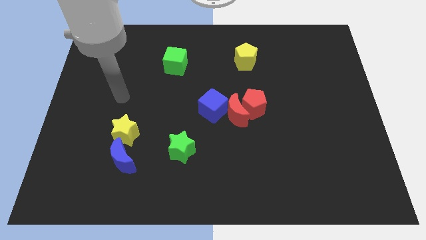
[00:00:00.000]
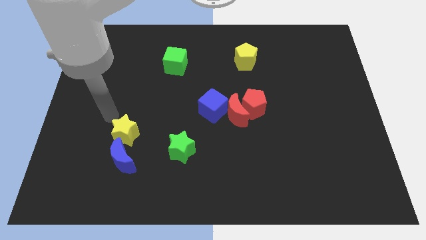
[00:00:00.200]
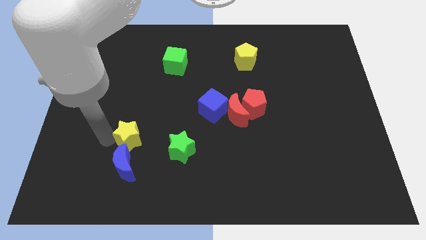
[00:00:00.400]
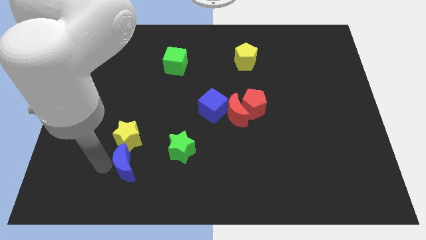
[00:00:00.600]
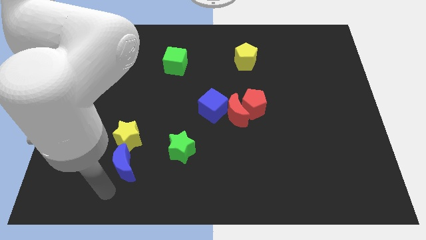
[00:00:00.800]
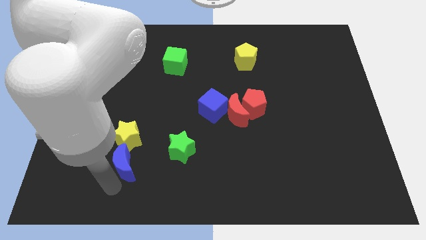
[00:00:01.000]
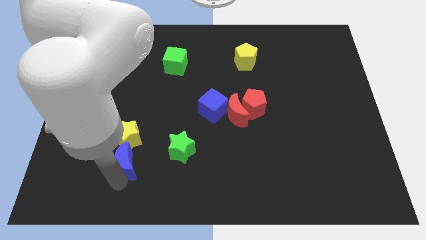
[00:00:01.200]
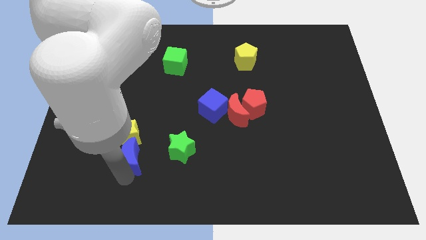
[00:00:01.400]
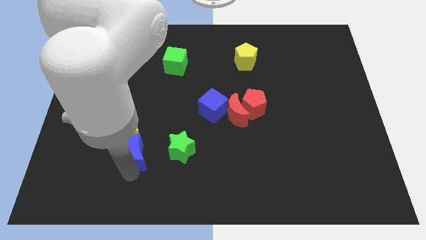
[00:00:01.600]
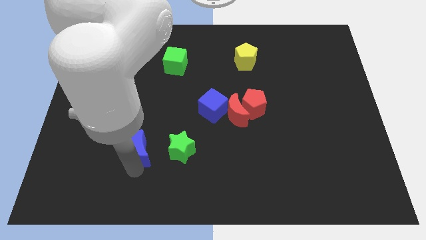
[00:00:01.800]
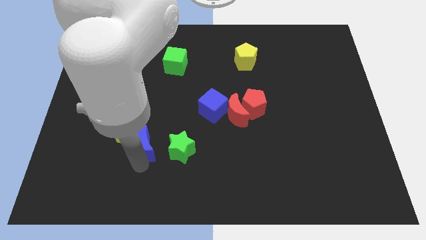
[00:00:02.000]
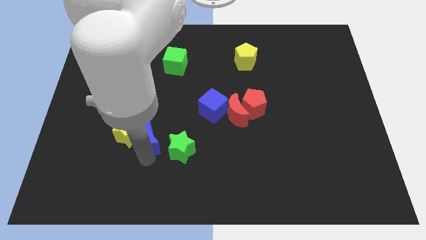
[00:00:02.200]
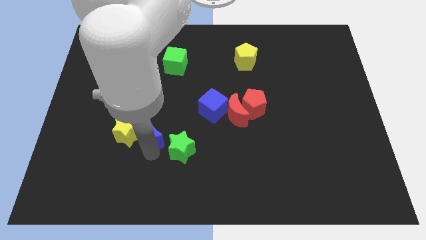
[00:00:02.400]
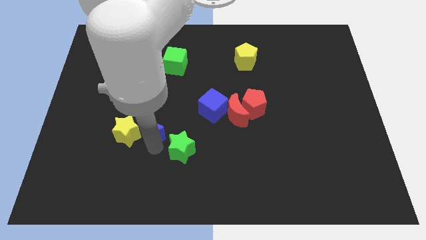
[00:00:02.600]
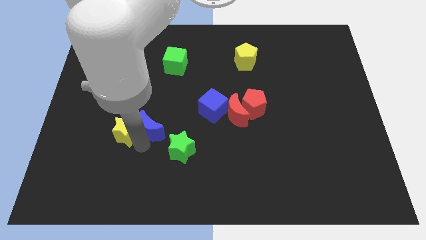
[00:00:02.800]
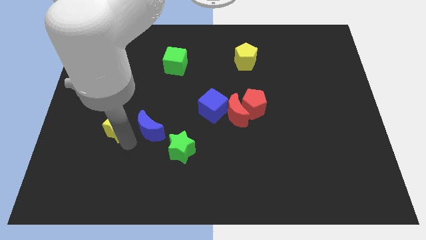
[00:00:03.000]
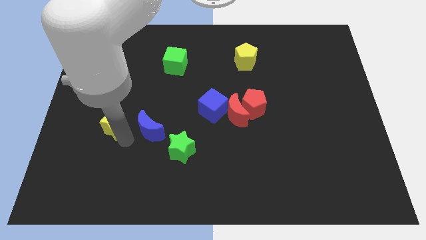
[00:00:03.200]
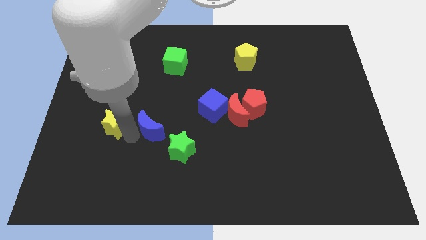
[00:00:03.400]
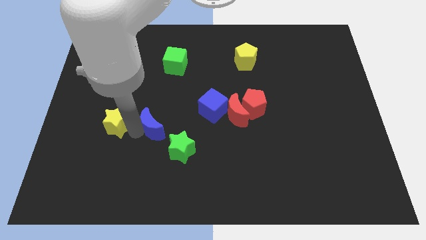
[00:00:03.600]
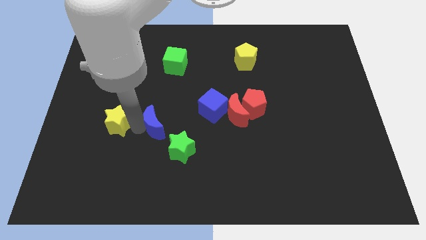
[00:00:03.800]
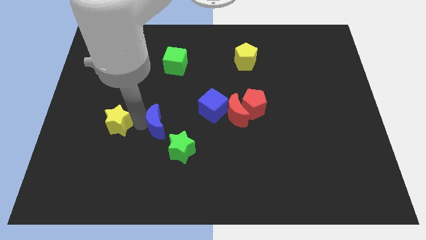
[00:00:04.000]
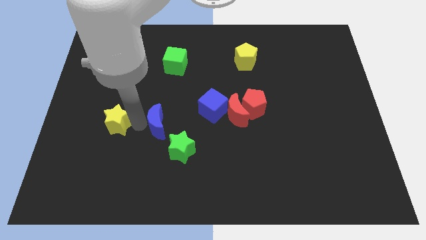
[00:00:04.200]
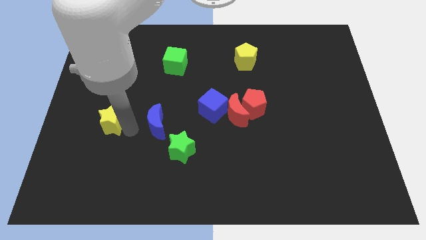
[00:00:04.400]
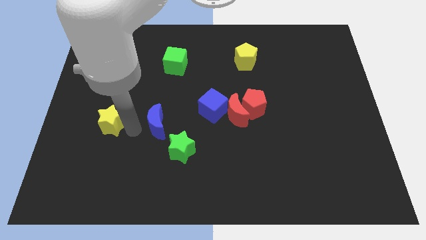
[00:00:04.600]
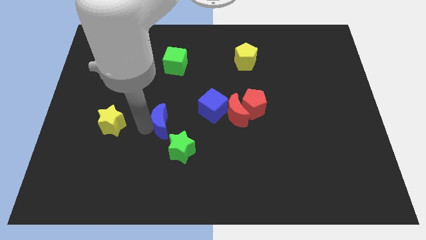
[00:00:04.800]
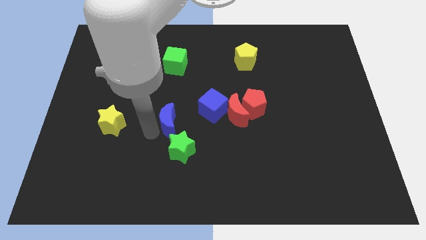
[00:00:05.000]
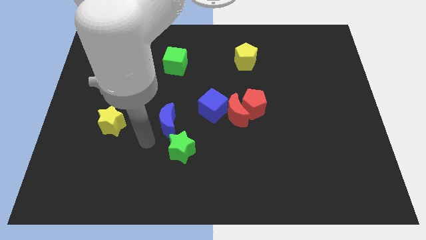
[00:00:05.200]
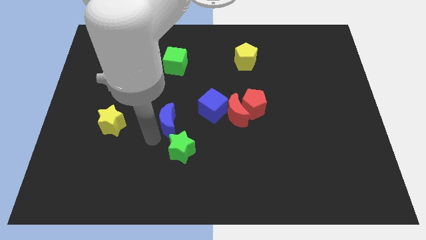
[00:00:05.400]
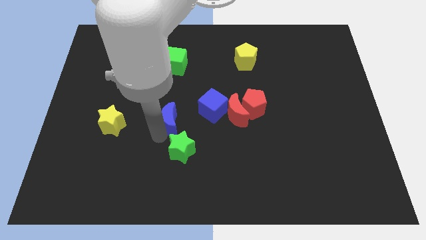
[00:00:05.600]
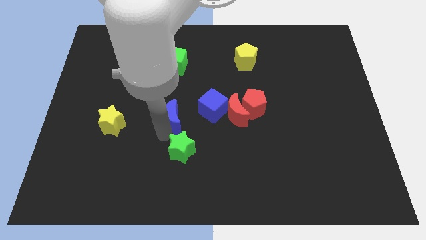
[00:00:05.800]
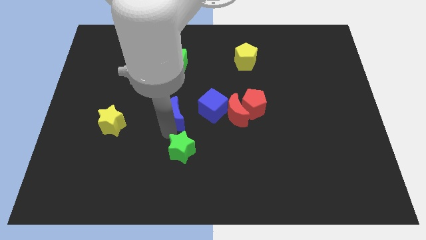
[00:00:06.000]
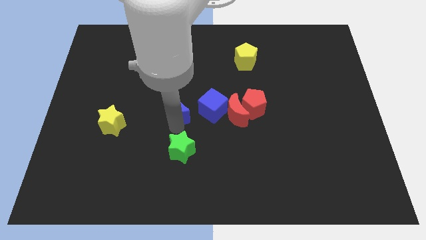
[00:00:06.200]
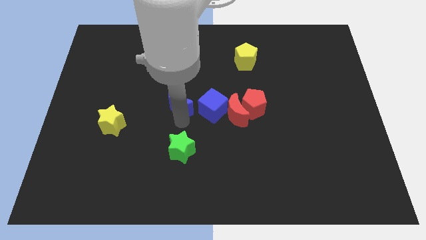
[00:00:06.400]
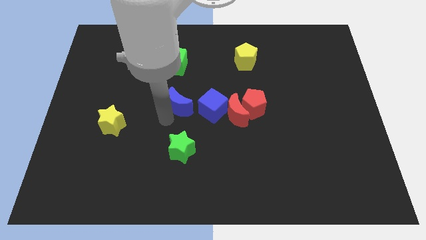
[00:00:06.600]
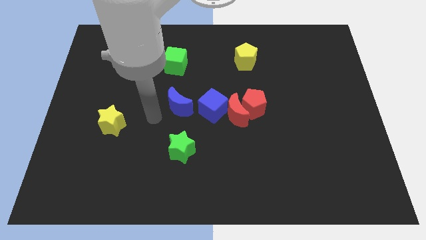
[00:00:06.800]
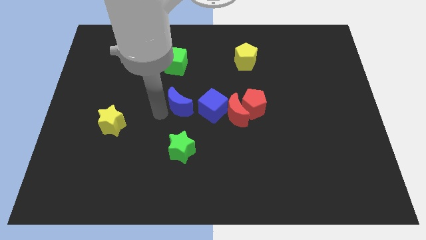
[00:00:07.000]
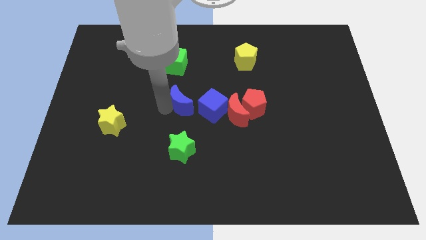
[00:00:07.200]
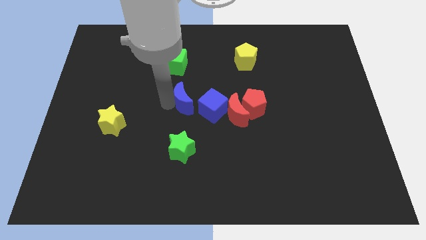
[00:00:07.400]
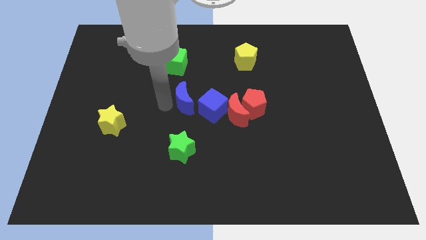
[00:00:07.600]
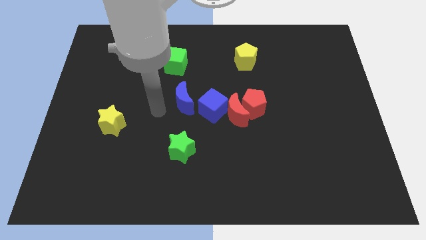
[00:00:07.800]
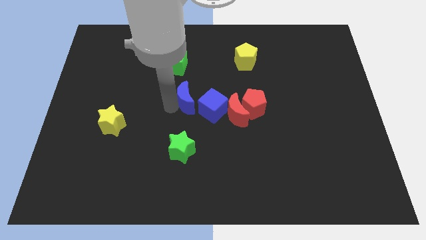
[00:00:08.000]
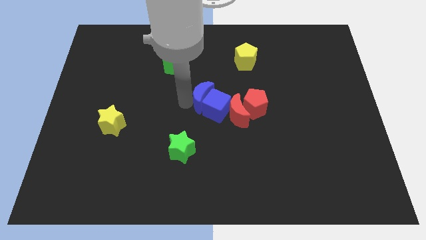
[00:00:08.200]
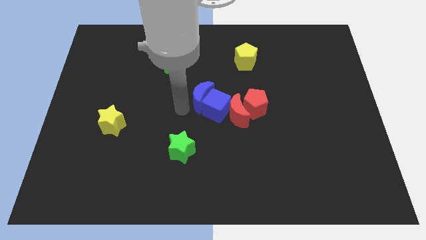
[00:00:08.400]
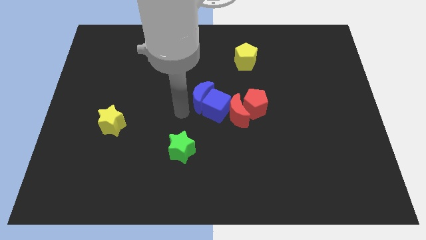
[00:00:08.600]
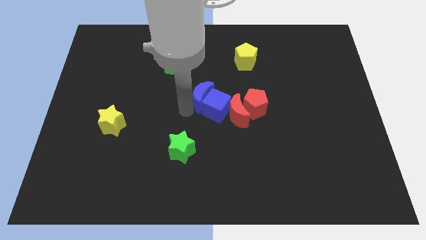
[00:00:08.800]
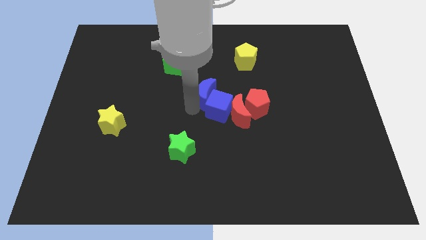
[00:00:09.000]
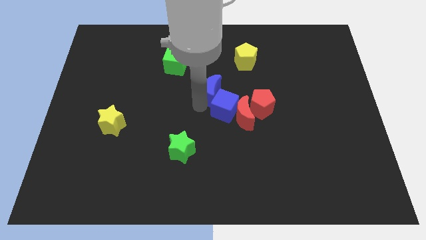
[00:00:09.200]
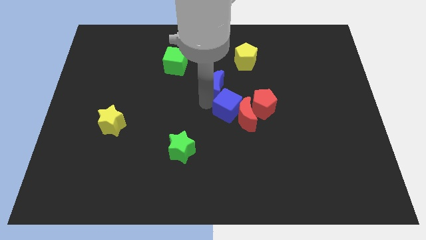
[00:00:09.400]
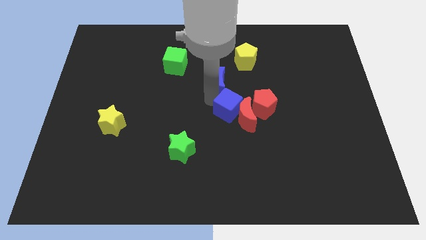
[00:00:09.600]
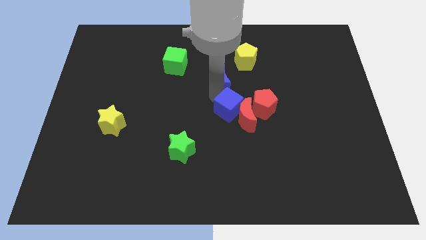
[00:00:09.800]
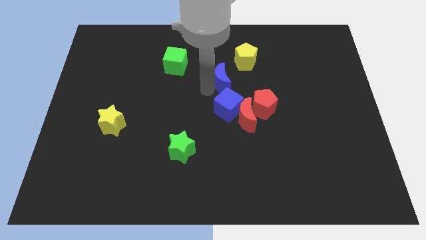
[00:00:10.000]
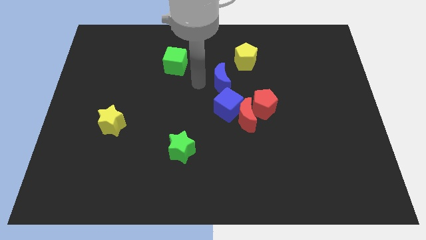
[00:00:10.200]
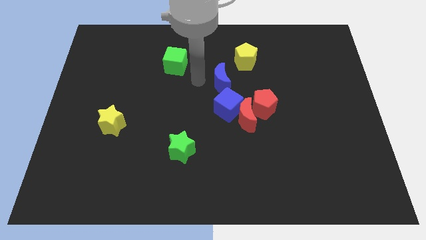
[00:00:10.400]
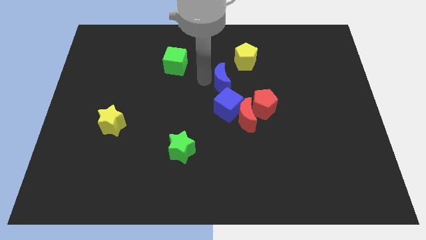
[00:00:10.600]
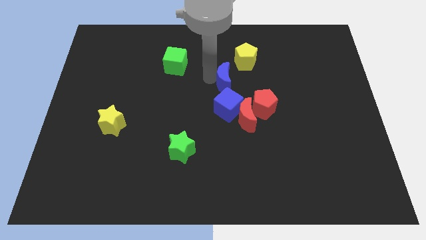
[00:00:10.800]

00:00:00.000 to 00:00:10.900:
put the blue moon to the top side of the red moon

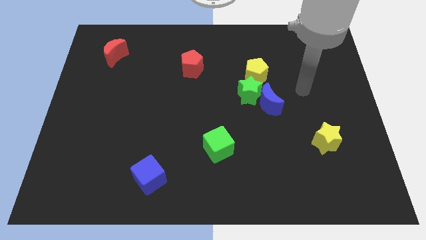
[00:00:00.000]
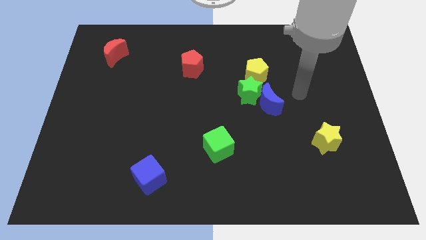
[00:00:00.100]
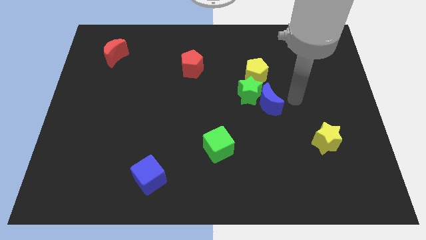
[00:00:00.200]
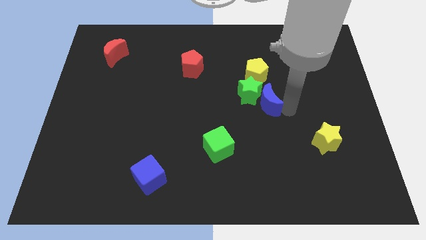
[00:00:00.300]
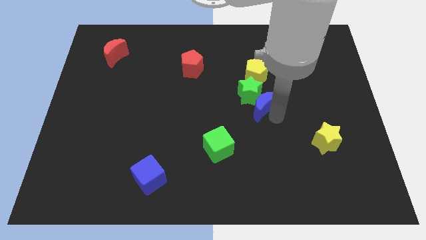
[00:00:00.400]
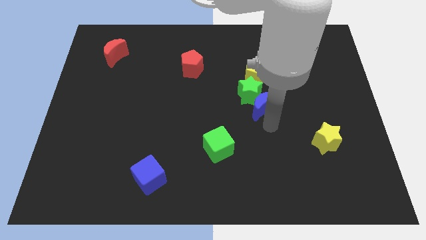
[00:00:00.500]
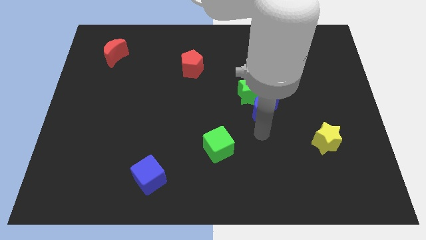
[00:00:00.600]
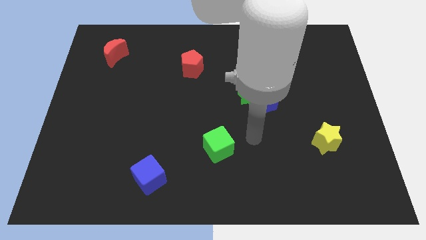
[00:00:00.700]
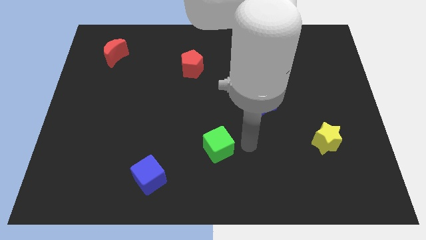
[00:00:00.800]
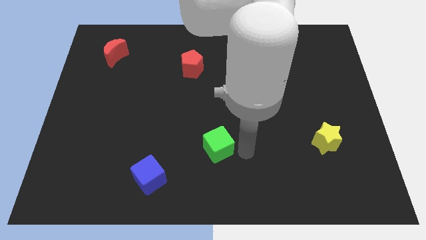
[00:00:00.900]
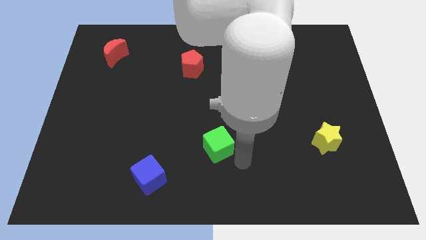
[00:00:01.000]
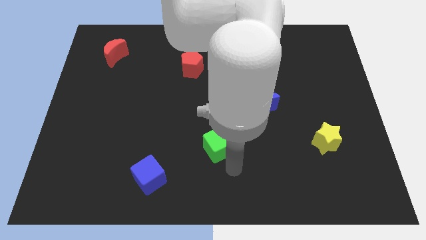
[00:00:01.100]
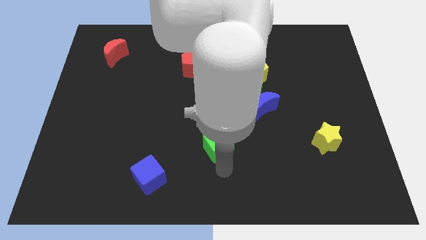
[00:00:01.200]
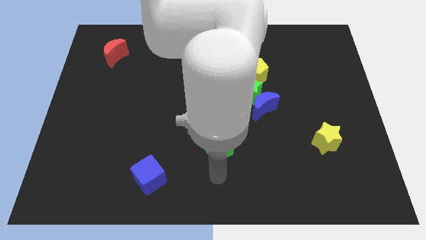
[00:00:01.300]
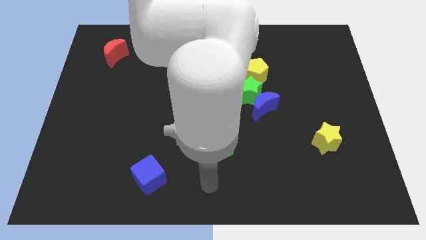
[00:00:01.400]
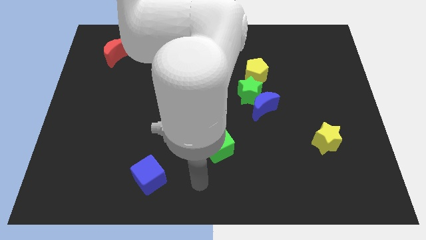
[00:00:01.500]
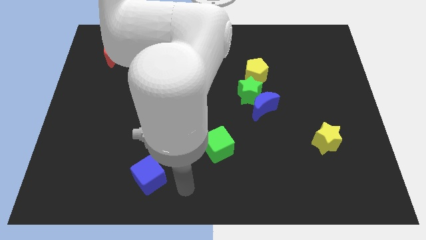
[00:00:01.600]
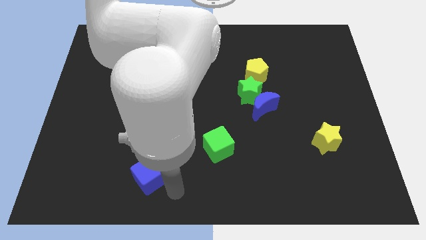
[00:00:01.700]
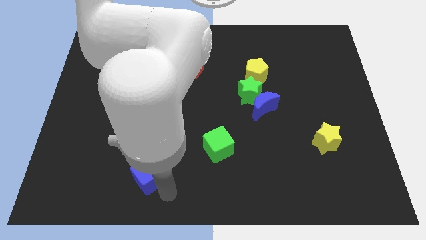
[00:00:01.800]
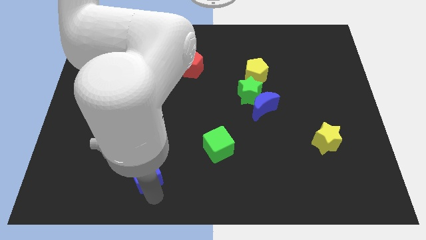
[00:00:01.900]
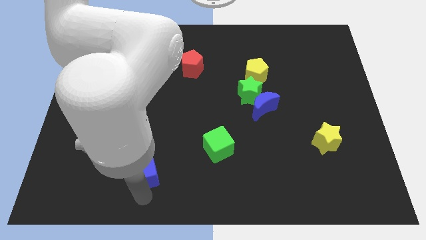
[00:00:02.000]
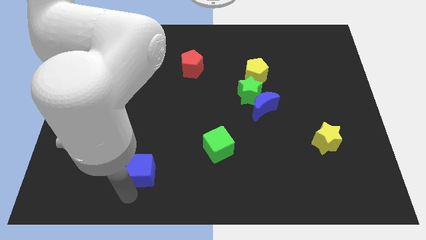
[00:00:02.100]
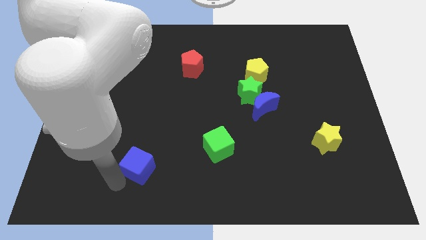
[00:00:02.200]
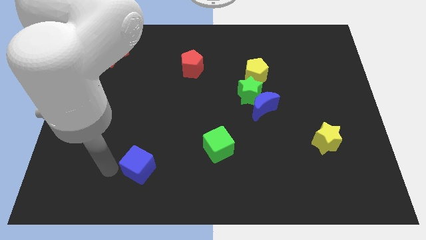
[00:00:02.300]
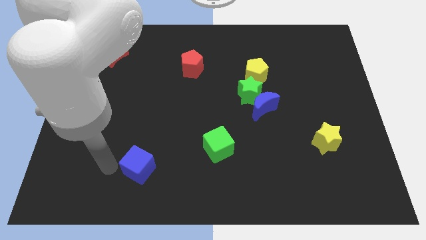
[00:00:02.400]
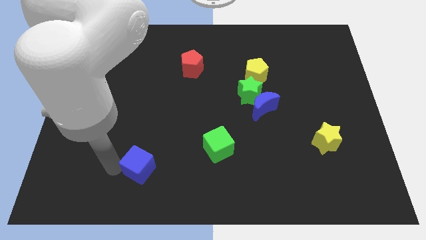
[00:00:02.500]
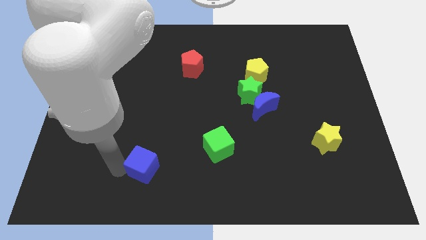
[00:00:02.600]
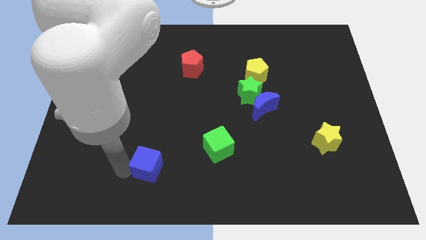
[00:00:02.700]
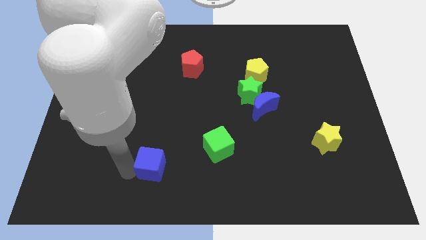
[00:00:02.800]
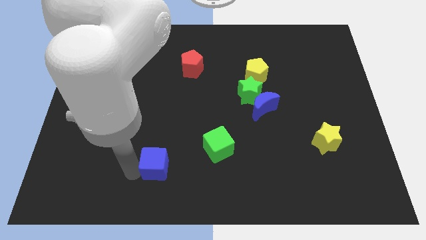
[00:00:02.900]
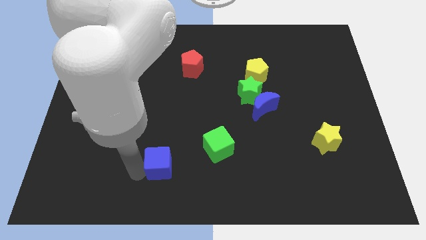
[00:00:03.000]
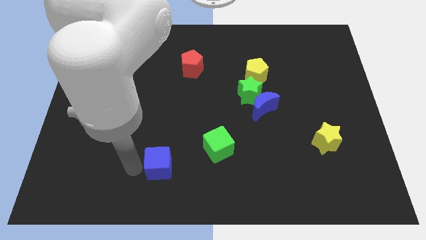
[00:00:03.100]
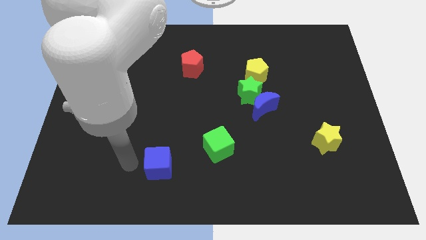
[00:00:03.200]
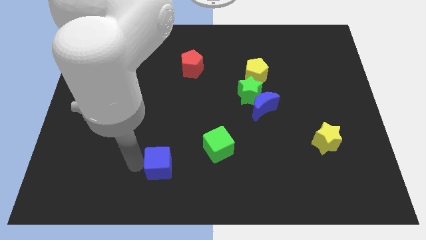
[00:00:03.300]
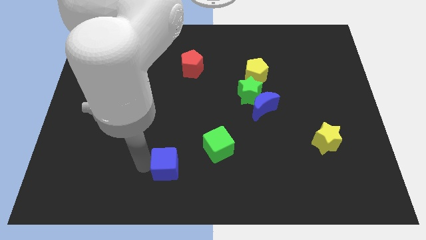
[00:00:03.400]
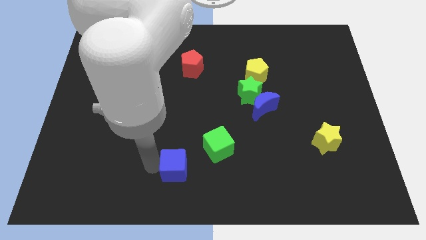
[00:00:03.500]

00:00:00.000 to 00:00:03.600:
move the blue cube to the bottom left of the green cube
